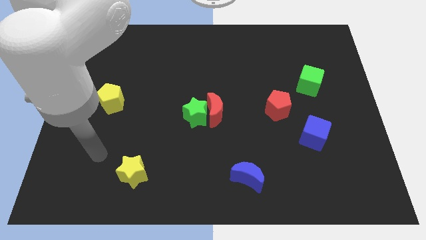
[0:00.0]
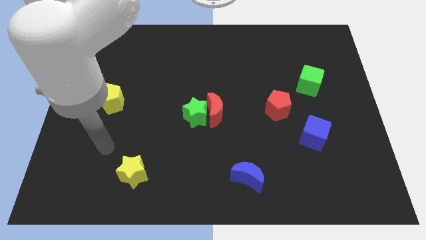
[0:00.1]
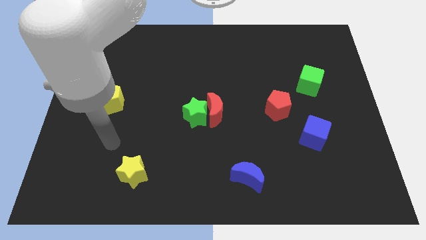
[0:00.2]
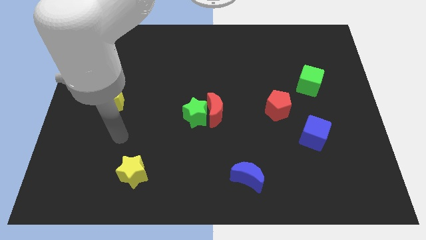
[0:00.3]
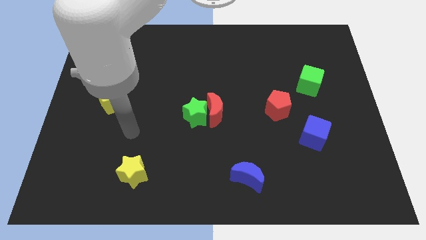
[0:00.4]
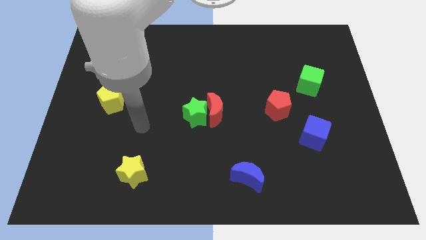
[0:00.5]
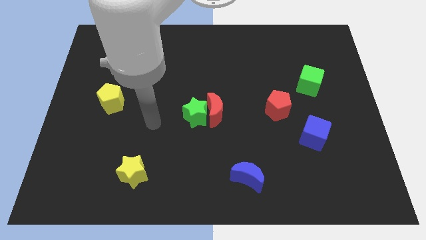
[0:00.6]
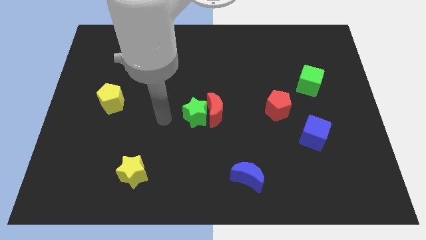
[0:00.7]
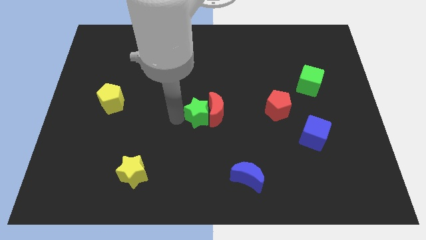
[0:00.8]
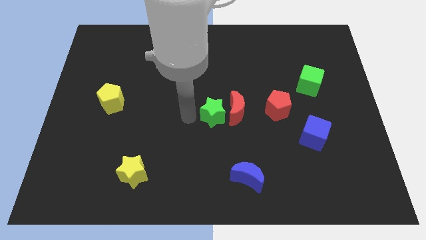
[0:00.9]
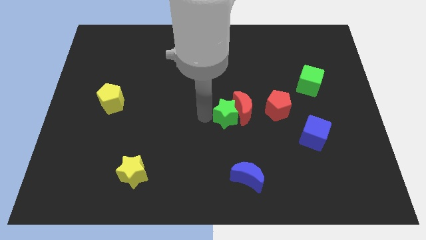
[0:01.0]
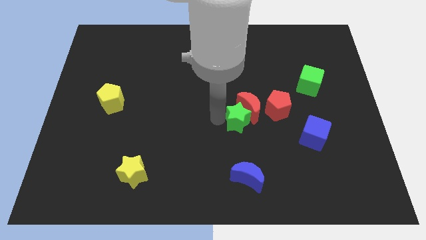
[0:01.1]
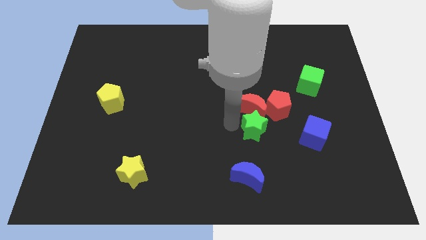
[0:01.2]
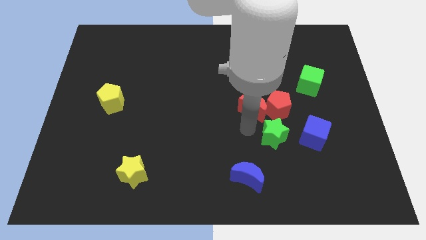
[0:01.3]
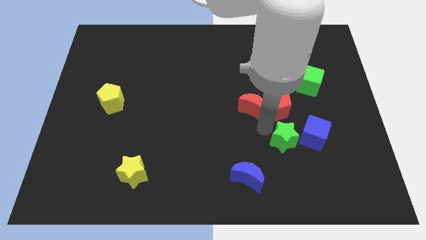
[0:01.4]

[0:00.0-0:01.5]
pull the red moon apart from the green star

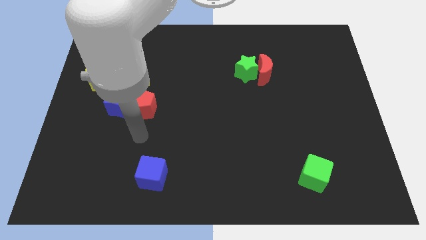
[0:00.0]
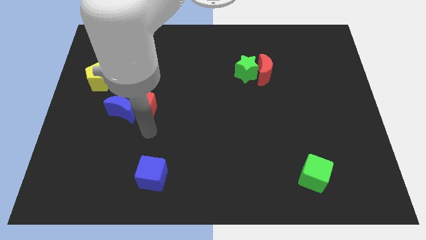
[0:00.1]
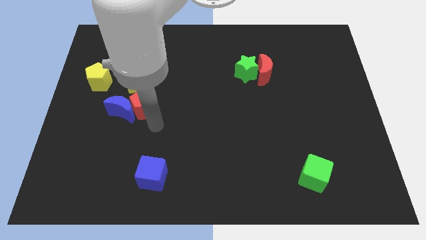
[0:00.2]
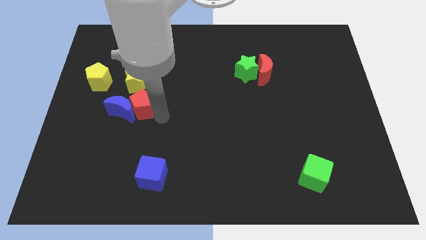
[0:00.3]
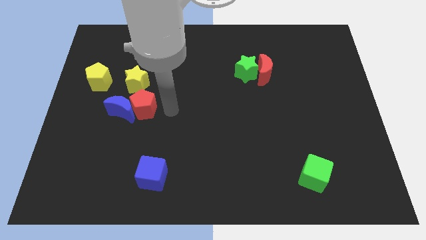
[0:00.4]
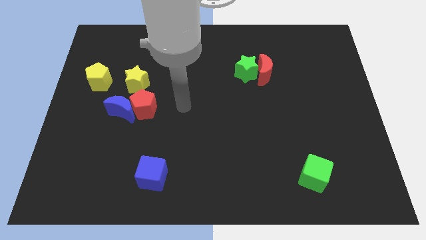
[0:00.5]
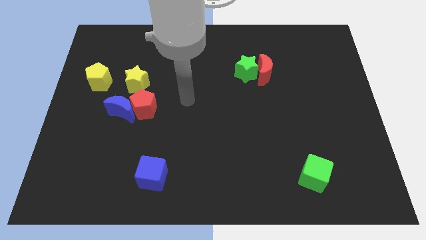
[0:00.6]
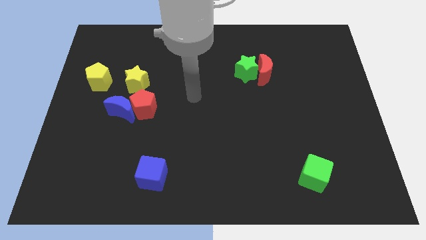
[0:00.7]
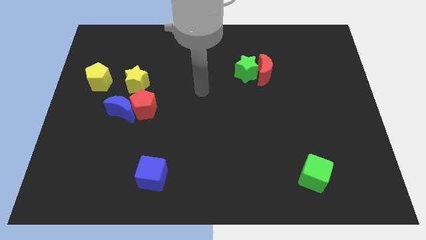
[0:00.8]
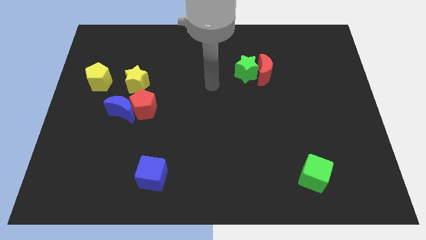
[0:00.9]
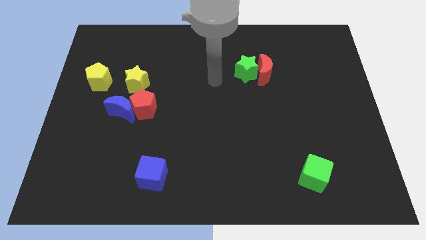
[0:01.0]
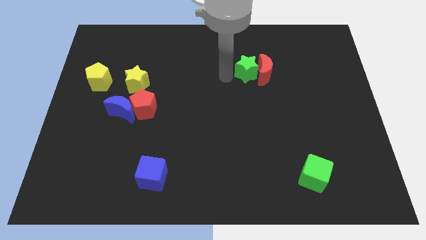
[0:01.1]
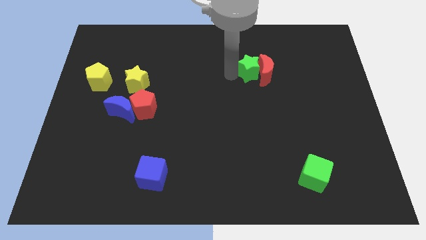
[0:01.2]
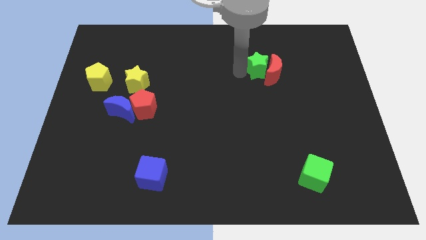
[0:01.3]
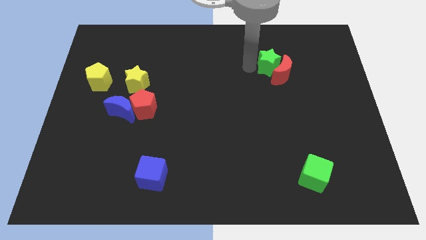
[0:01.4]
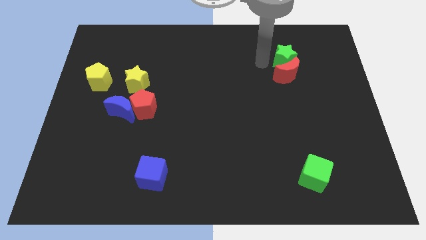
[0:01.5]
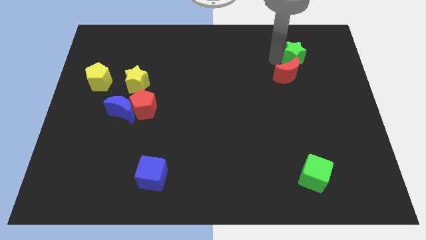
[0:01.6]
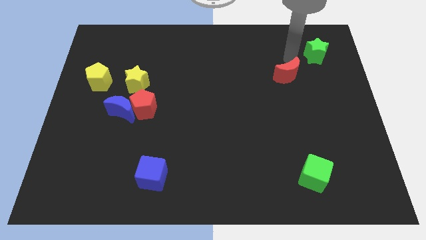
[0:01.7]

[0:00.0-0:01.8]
move the red moon away from the green star

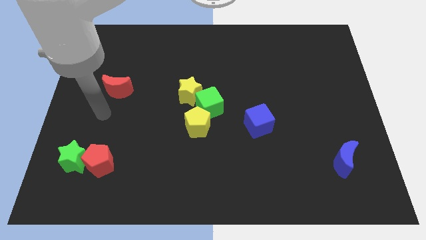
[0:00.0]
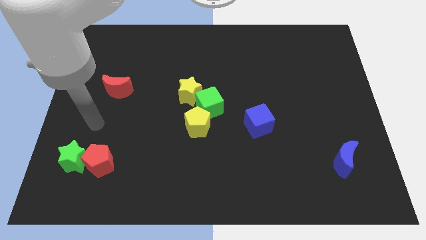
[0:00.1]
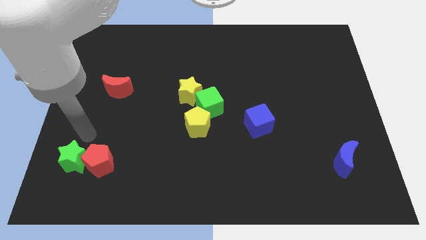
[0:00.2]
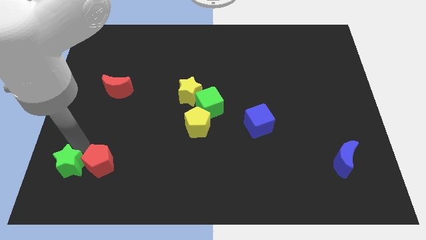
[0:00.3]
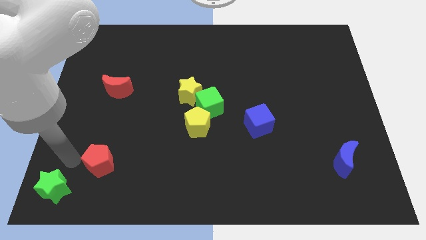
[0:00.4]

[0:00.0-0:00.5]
pull the red pentagon apart from the green star

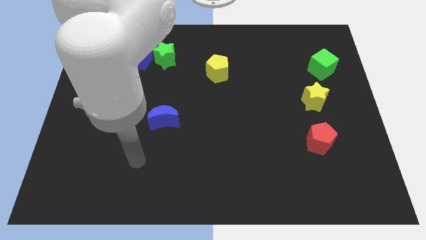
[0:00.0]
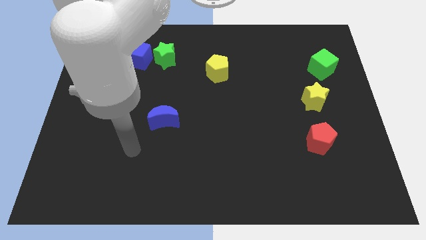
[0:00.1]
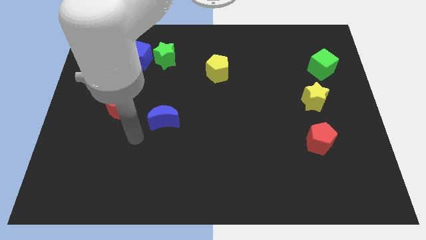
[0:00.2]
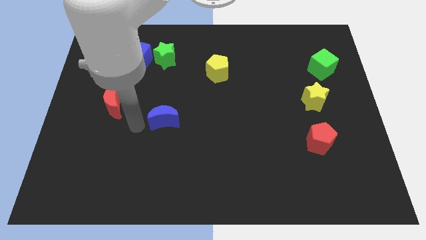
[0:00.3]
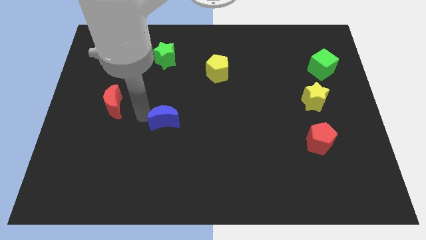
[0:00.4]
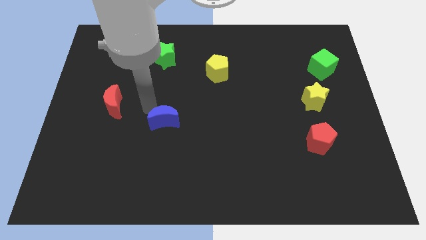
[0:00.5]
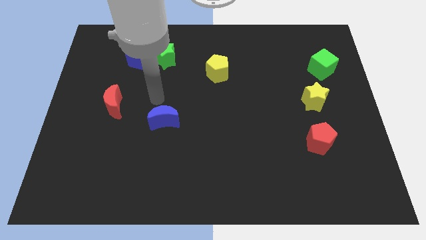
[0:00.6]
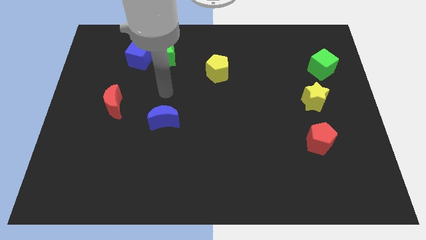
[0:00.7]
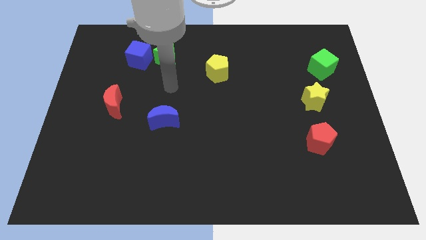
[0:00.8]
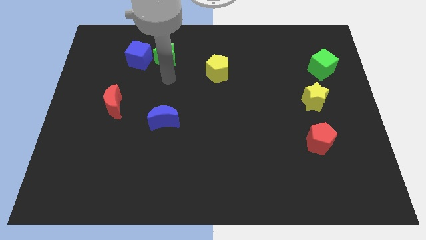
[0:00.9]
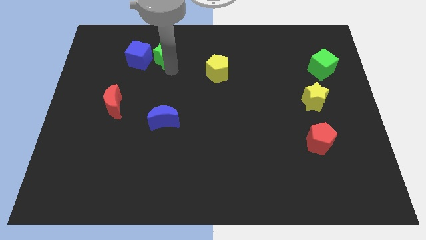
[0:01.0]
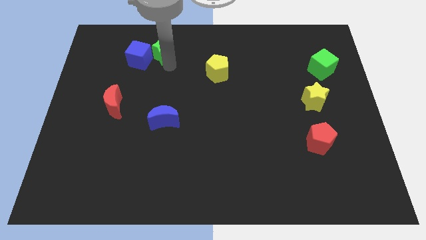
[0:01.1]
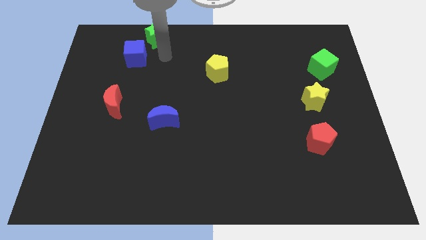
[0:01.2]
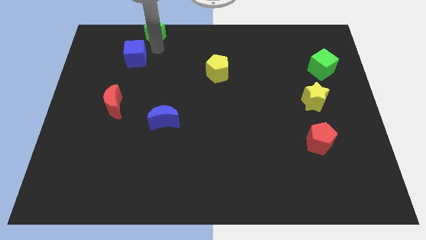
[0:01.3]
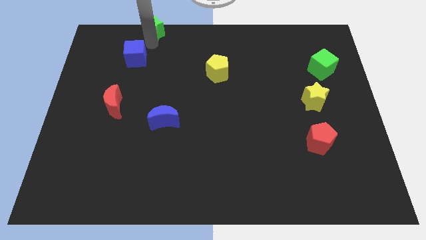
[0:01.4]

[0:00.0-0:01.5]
pull the blue cube apart from the green star

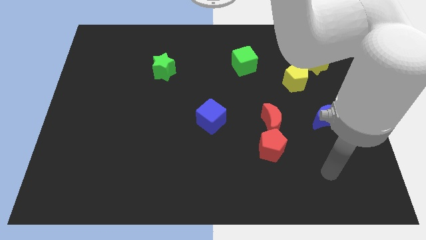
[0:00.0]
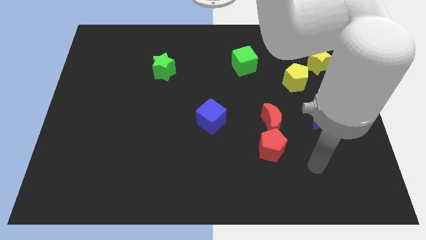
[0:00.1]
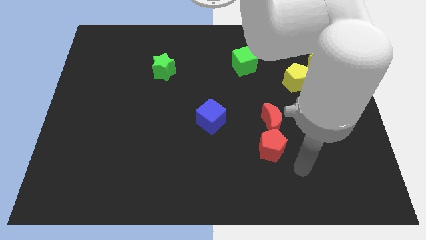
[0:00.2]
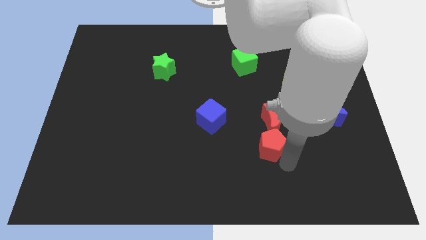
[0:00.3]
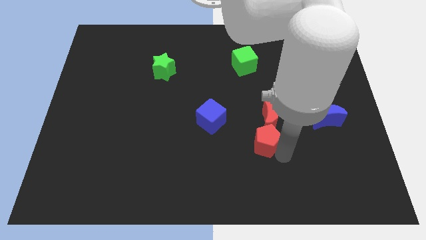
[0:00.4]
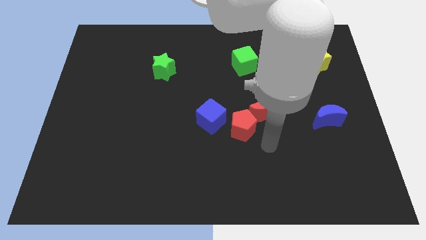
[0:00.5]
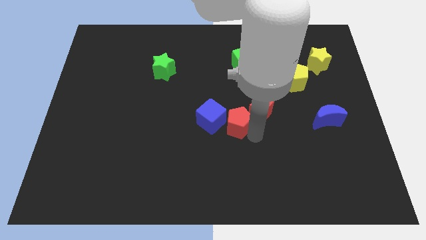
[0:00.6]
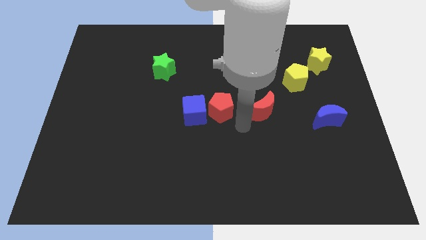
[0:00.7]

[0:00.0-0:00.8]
separate the red moon from the red pentagon

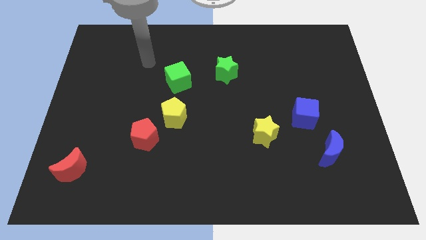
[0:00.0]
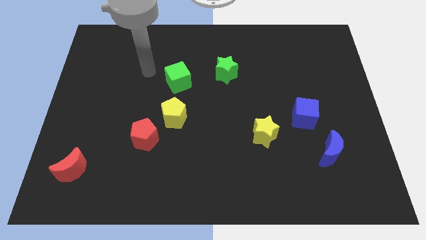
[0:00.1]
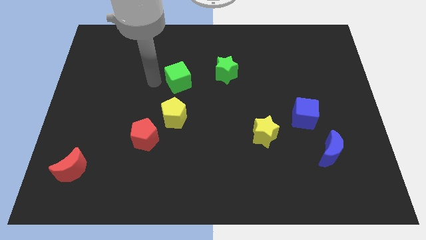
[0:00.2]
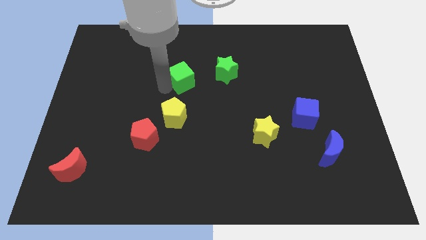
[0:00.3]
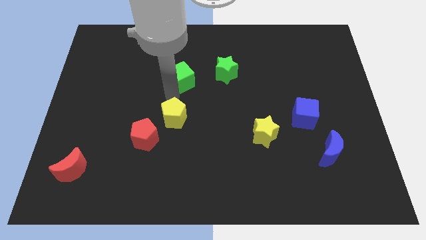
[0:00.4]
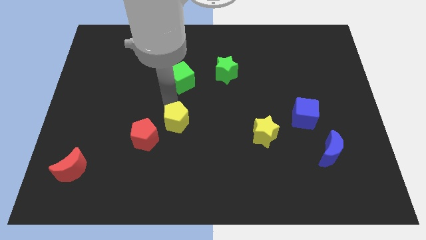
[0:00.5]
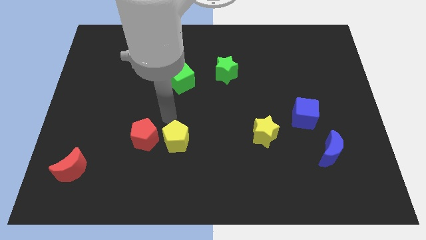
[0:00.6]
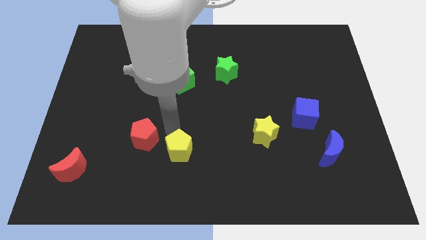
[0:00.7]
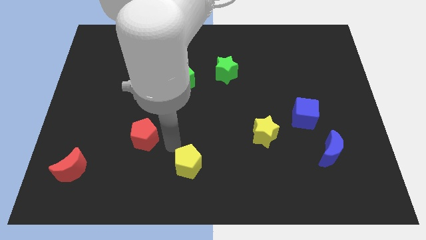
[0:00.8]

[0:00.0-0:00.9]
pull the red pentagon apart from the yellow pentagon

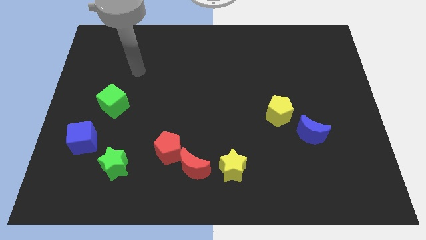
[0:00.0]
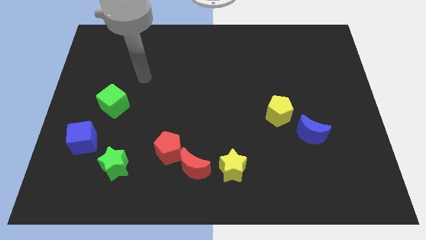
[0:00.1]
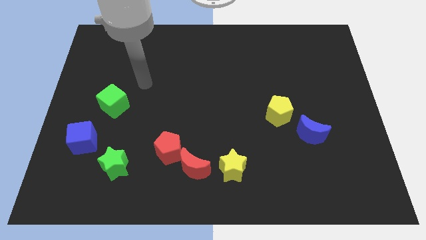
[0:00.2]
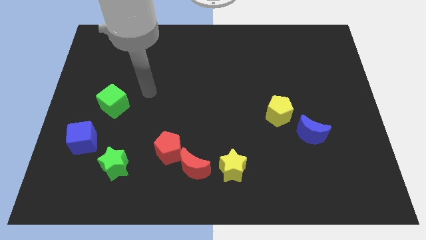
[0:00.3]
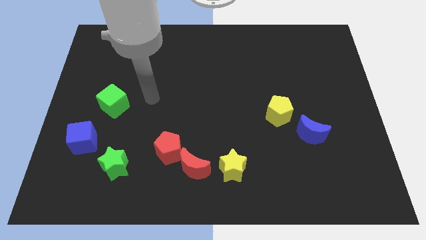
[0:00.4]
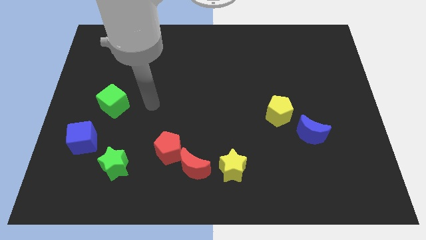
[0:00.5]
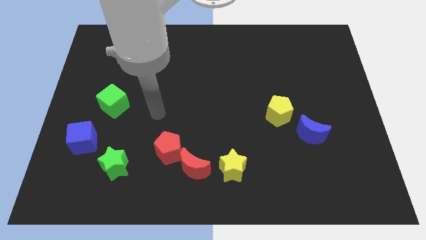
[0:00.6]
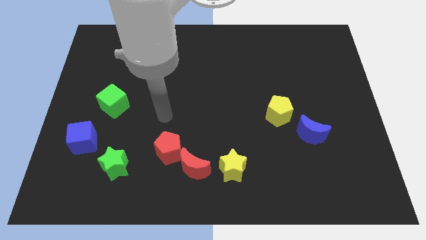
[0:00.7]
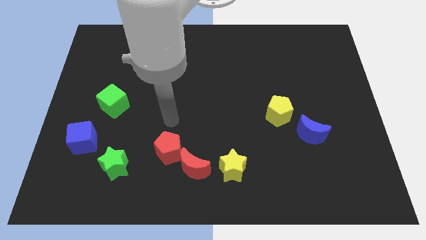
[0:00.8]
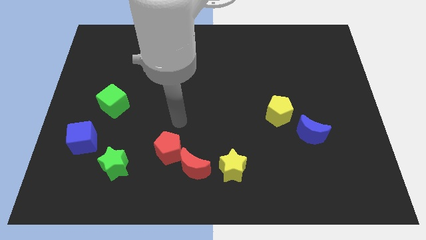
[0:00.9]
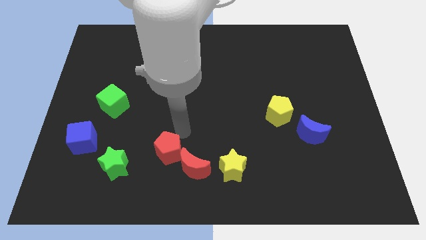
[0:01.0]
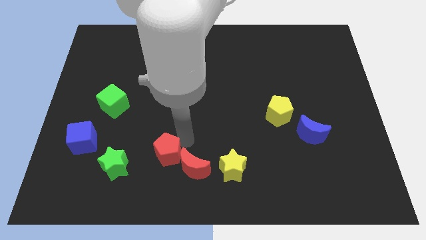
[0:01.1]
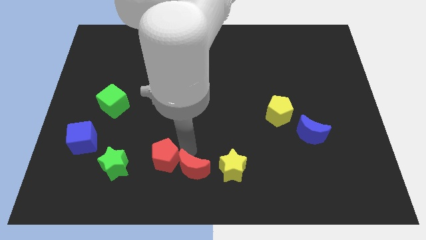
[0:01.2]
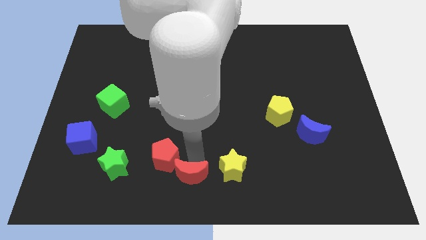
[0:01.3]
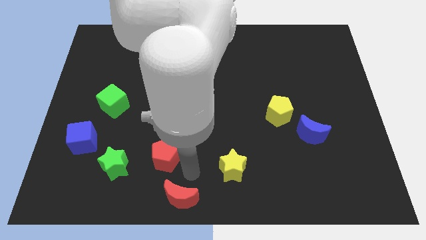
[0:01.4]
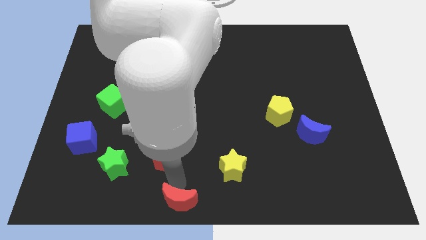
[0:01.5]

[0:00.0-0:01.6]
separate the red pentagon from the red moon

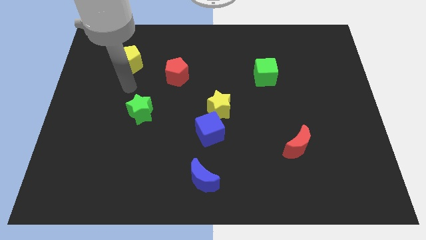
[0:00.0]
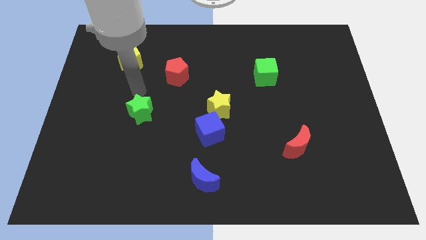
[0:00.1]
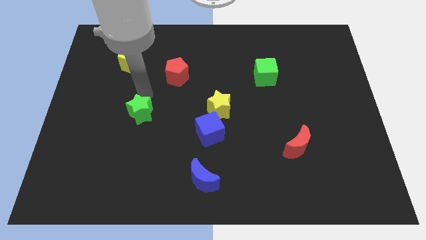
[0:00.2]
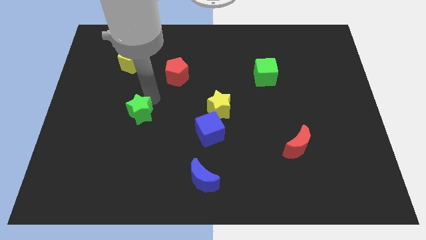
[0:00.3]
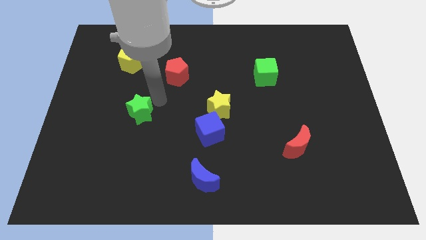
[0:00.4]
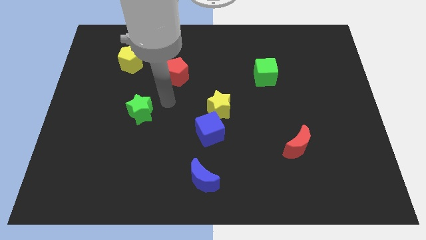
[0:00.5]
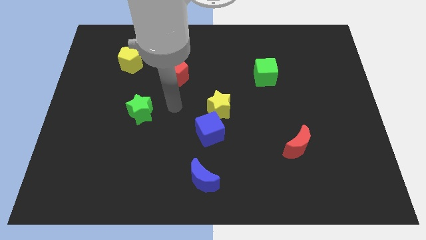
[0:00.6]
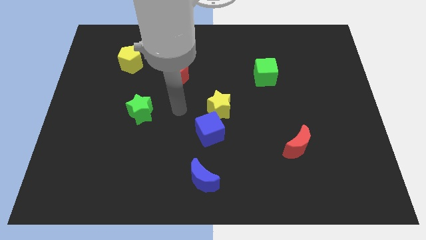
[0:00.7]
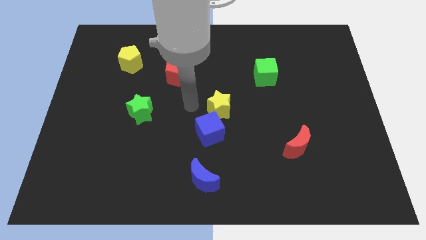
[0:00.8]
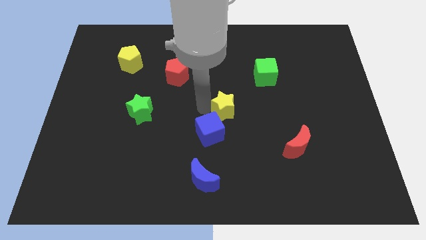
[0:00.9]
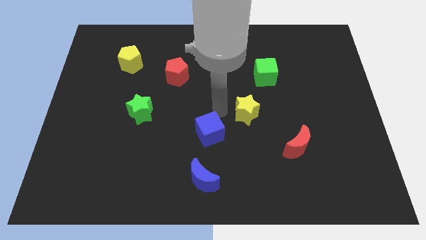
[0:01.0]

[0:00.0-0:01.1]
separate the blue cube from the yellow star
